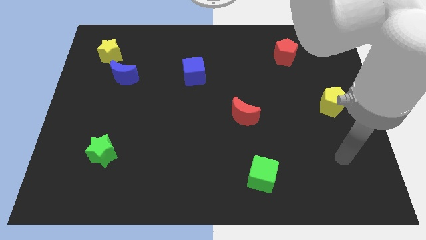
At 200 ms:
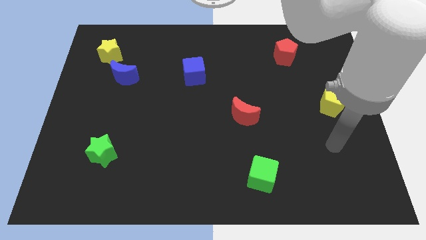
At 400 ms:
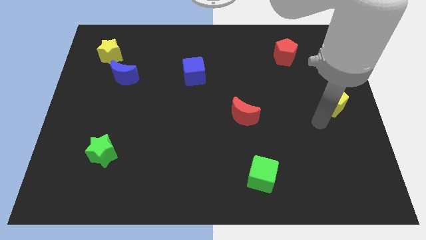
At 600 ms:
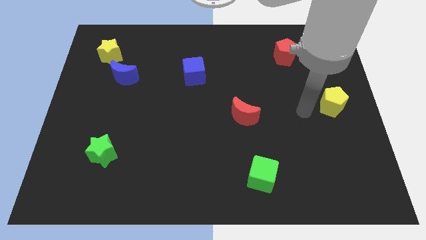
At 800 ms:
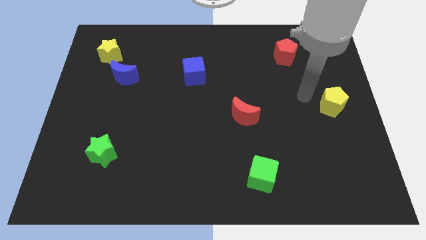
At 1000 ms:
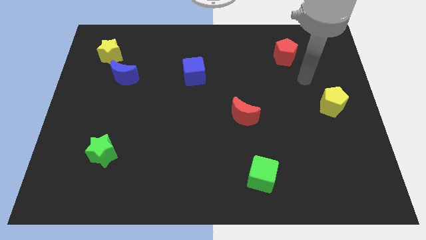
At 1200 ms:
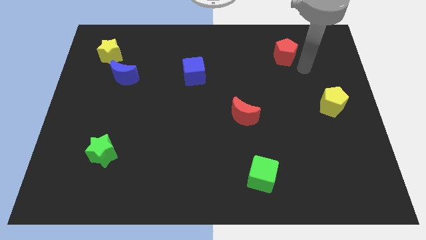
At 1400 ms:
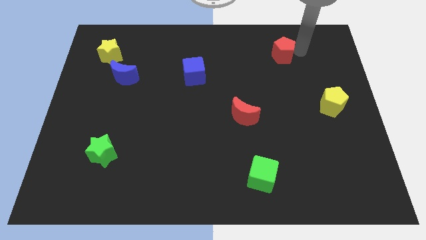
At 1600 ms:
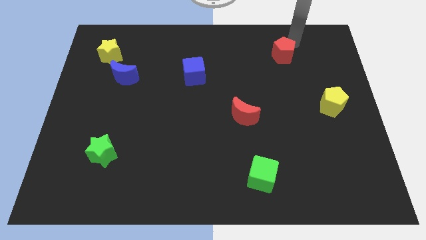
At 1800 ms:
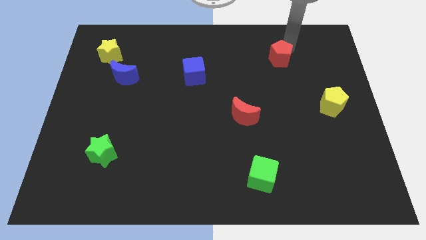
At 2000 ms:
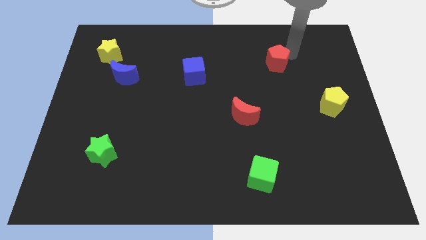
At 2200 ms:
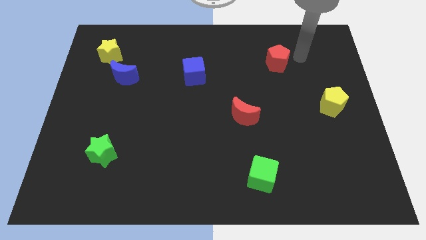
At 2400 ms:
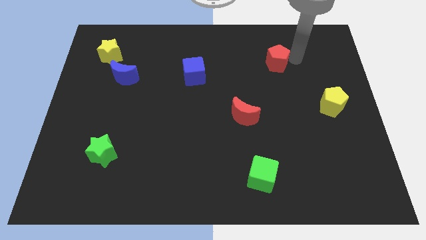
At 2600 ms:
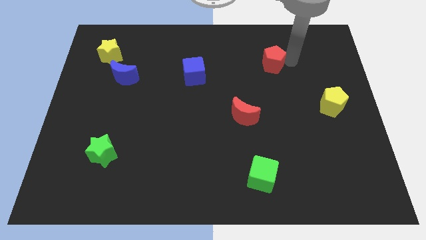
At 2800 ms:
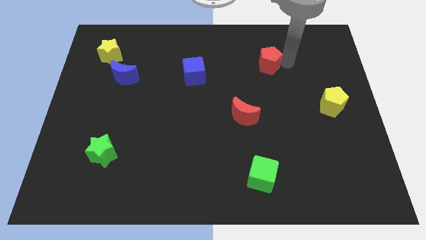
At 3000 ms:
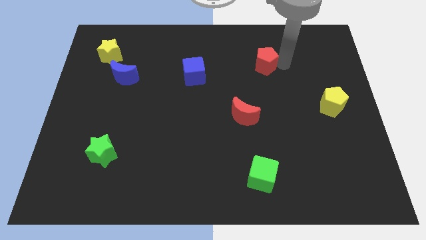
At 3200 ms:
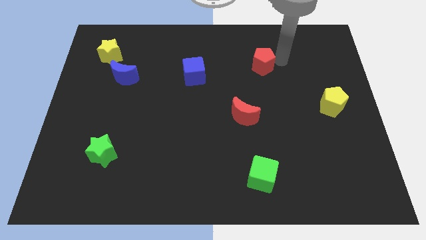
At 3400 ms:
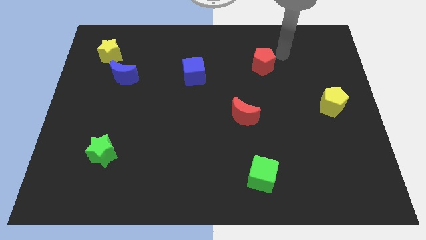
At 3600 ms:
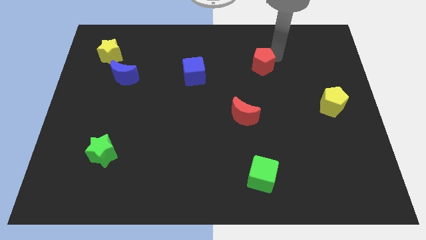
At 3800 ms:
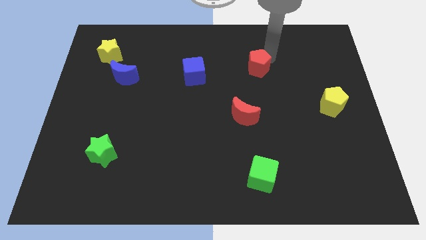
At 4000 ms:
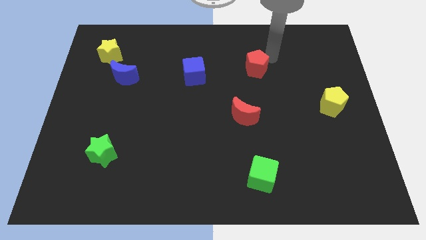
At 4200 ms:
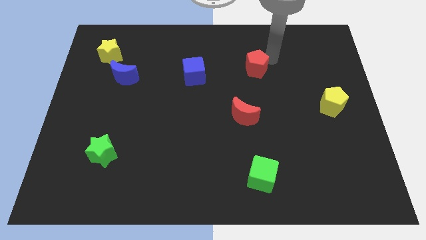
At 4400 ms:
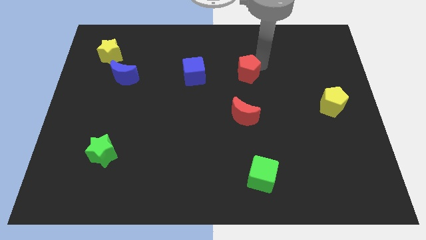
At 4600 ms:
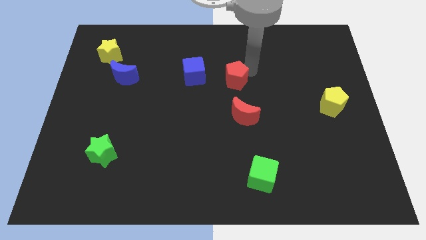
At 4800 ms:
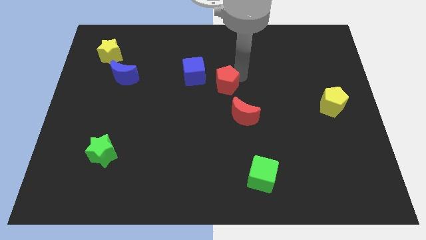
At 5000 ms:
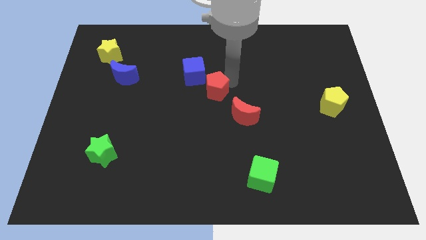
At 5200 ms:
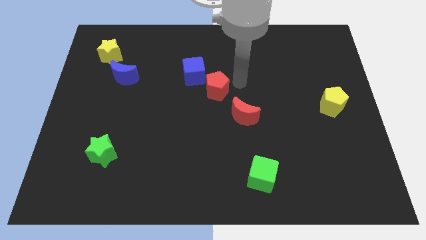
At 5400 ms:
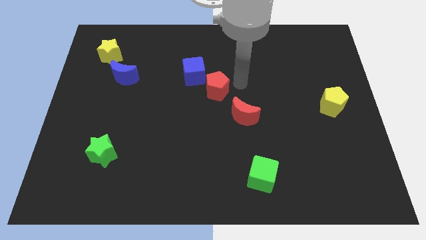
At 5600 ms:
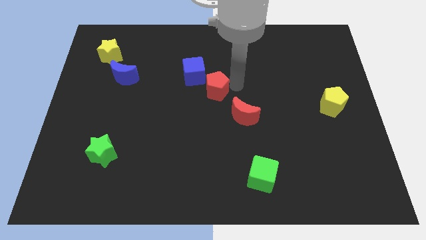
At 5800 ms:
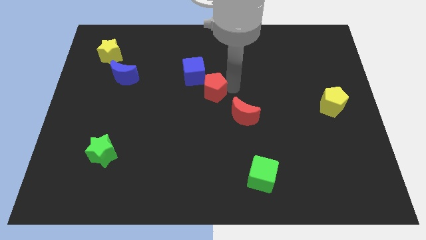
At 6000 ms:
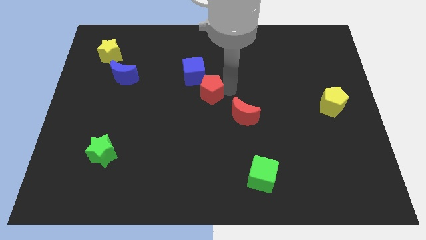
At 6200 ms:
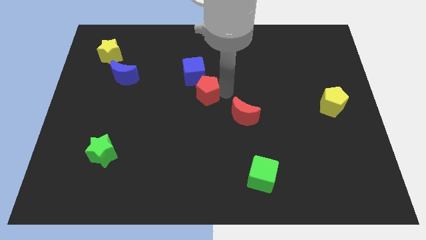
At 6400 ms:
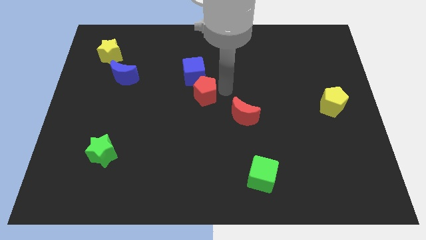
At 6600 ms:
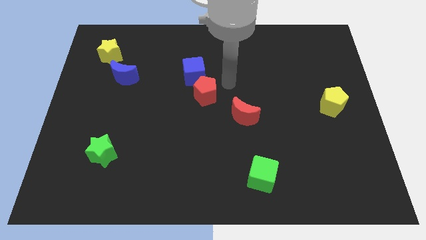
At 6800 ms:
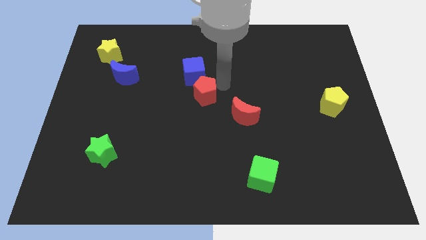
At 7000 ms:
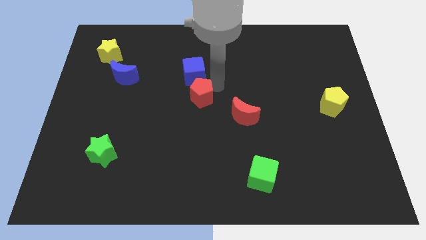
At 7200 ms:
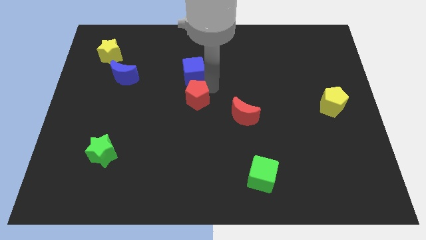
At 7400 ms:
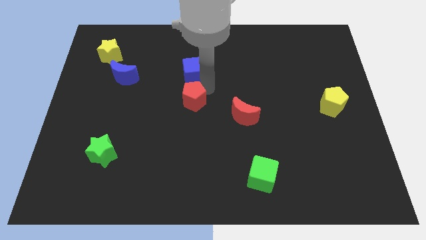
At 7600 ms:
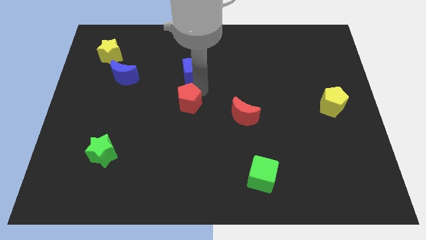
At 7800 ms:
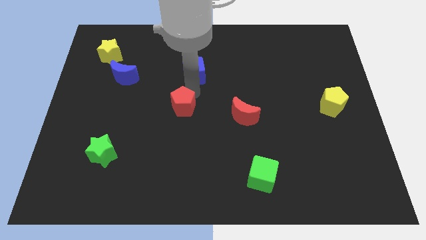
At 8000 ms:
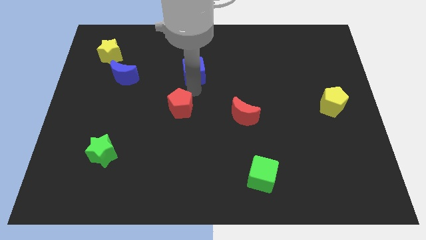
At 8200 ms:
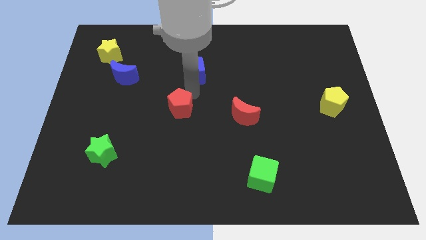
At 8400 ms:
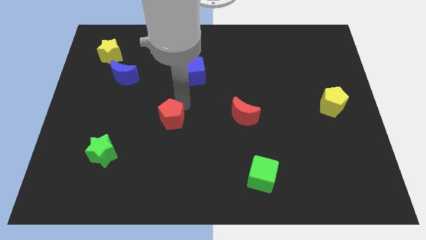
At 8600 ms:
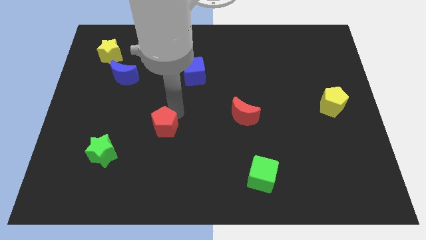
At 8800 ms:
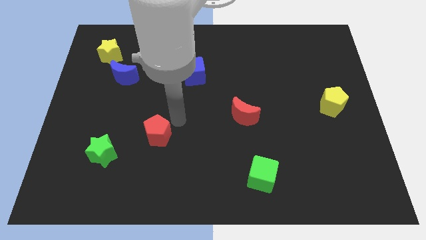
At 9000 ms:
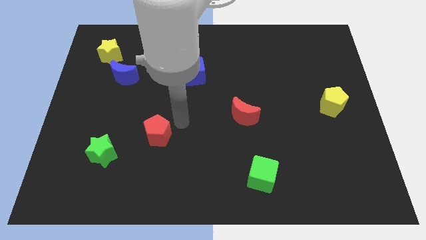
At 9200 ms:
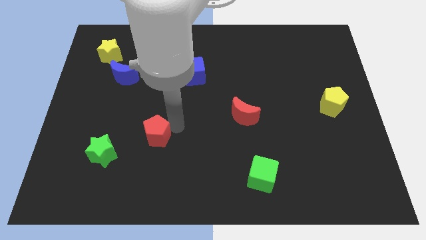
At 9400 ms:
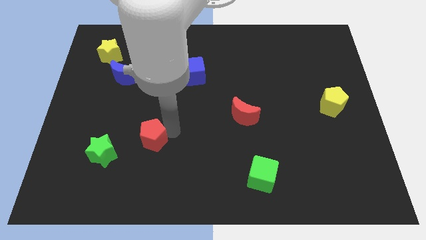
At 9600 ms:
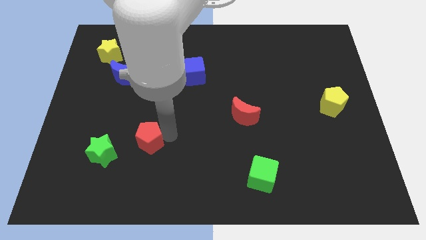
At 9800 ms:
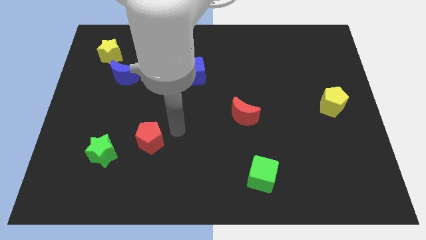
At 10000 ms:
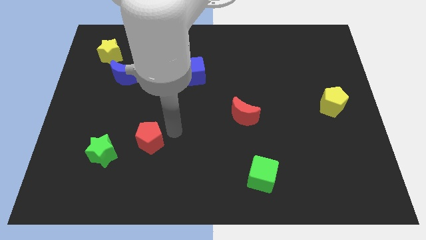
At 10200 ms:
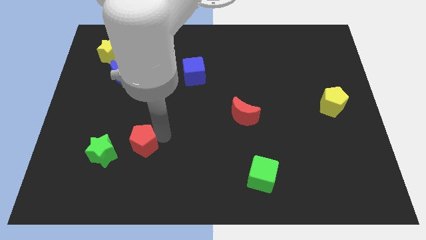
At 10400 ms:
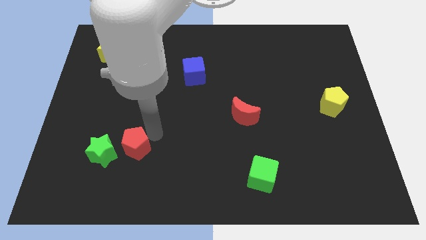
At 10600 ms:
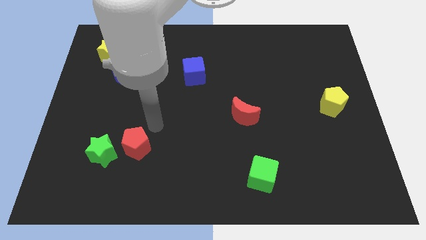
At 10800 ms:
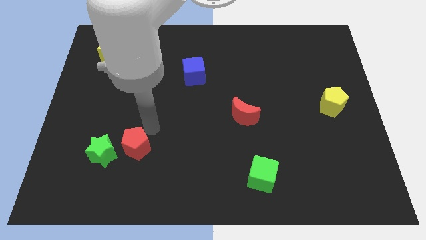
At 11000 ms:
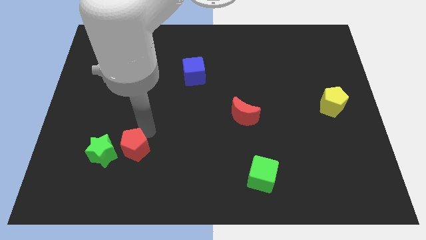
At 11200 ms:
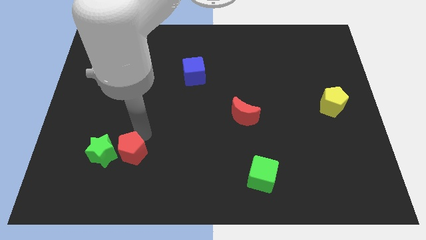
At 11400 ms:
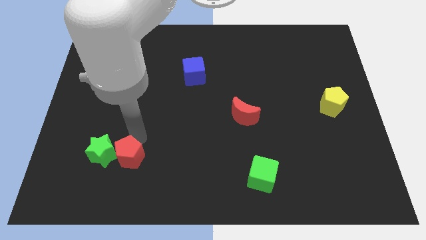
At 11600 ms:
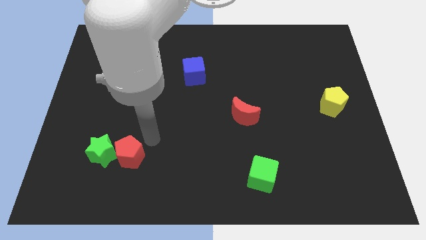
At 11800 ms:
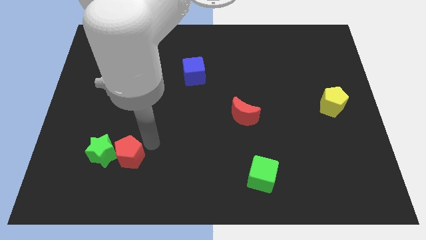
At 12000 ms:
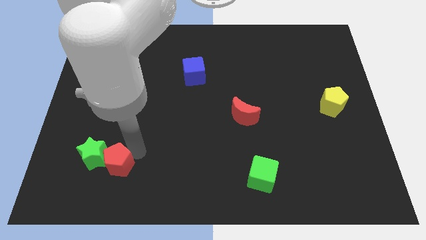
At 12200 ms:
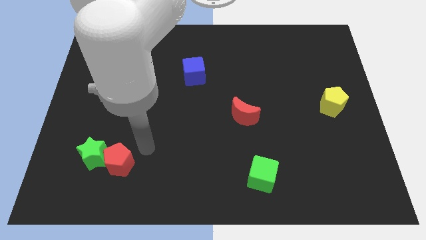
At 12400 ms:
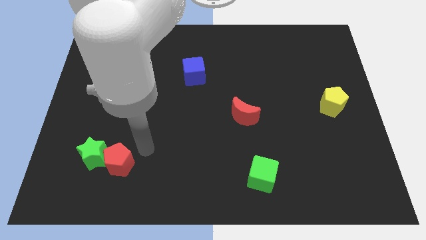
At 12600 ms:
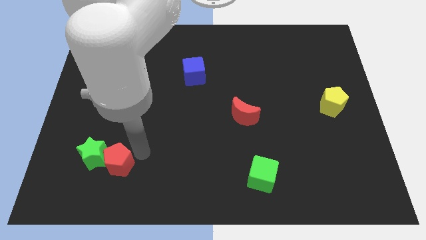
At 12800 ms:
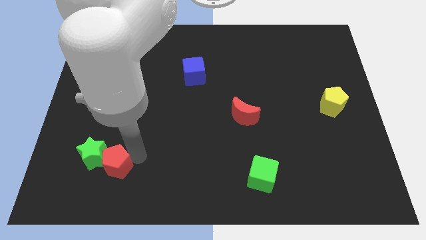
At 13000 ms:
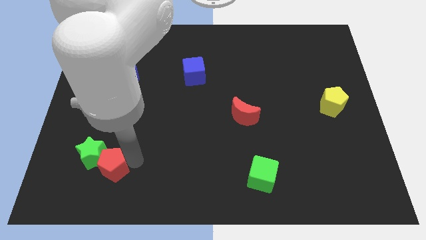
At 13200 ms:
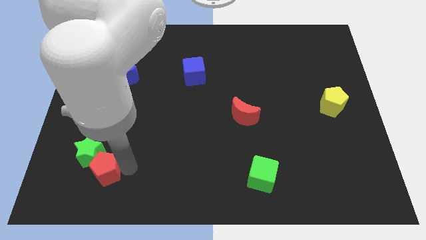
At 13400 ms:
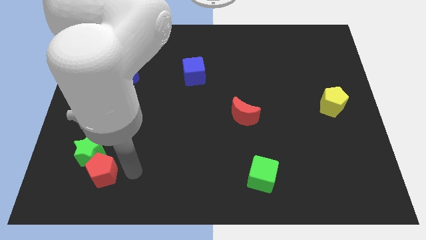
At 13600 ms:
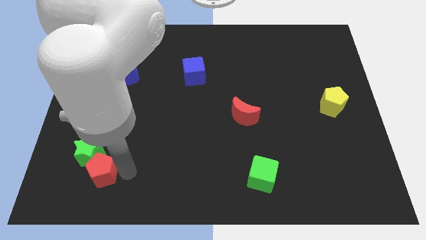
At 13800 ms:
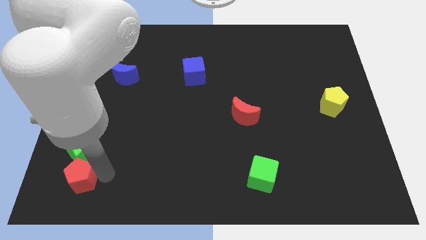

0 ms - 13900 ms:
move the red pentagon to the bottom left side of the green star
